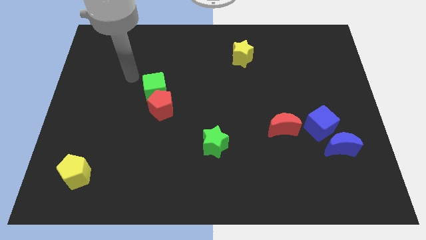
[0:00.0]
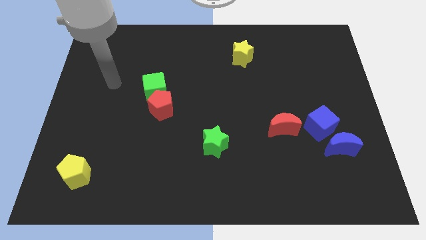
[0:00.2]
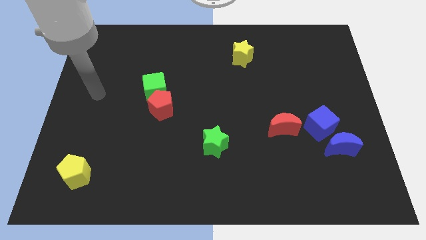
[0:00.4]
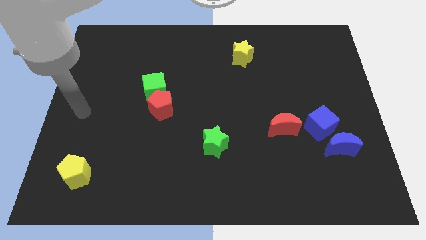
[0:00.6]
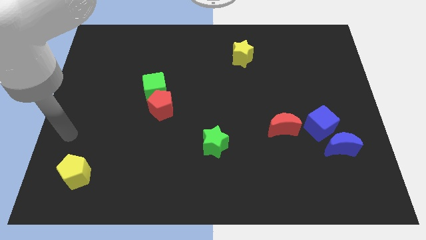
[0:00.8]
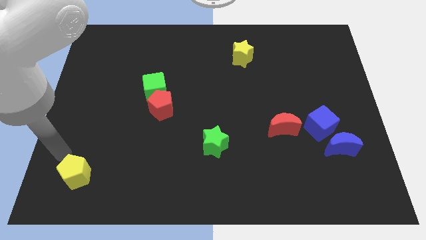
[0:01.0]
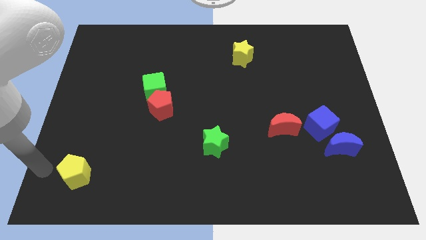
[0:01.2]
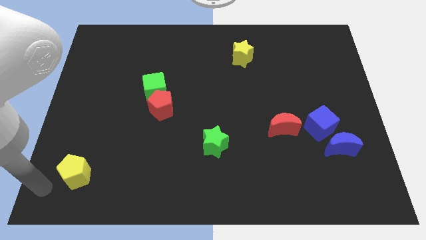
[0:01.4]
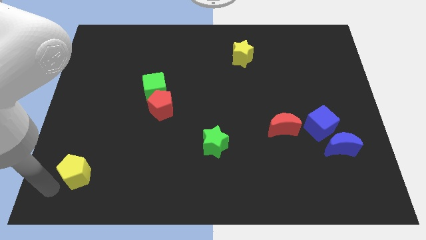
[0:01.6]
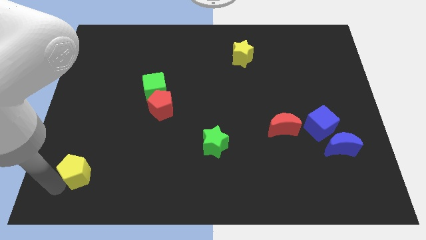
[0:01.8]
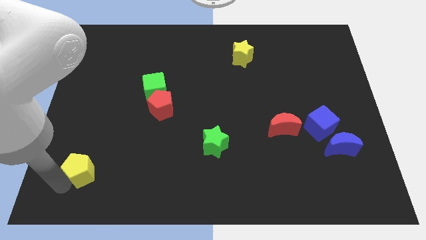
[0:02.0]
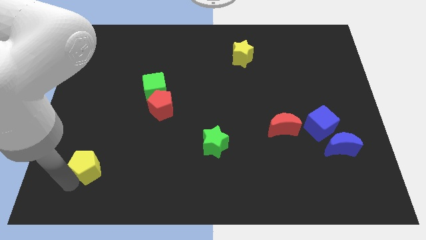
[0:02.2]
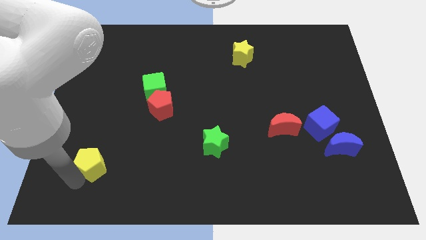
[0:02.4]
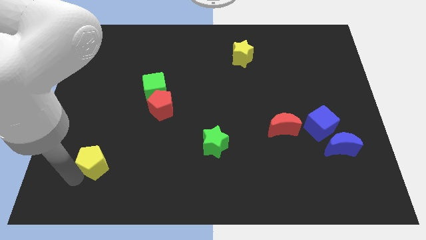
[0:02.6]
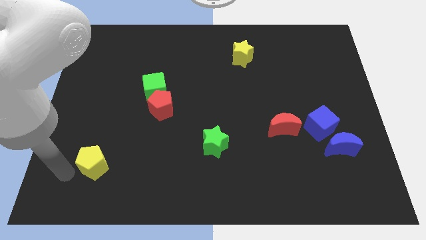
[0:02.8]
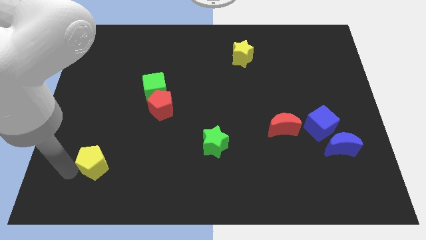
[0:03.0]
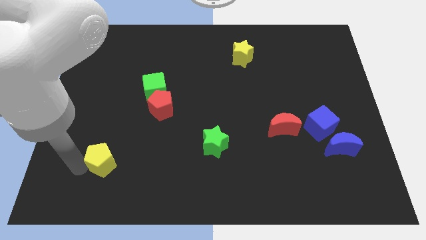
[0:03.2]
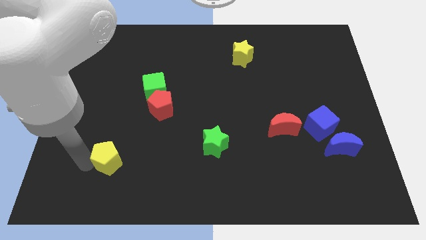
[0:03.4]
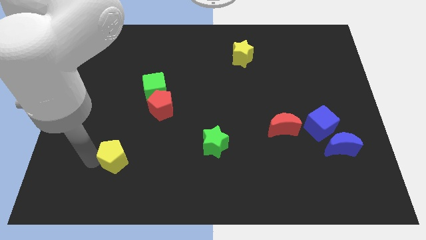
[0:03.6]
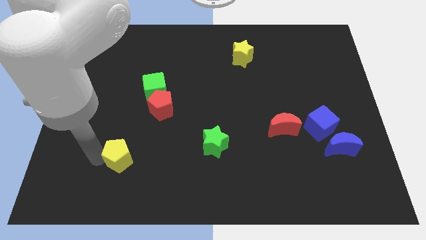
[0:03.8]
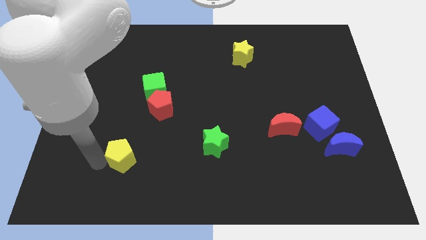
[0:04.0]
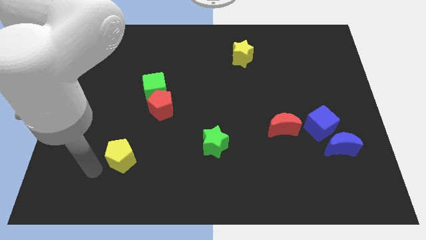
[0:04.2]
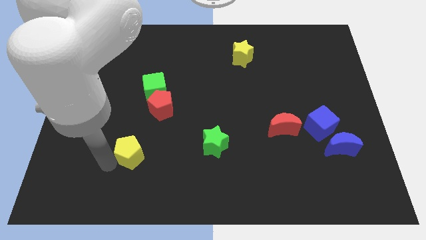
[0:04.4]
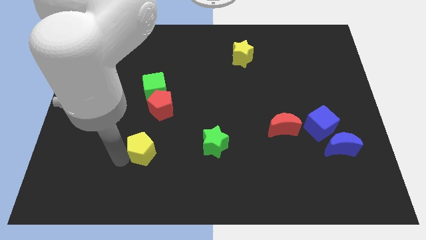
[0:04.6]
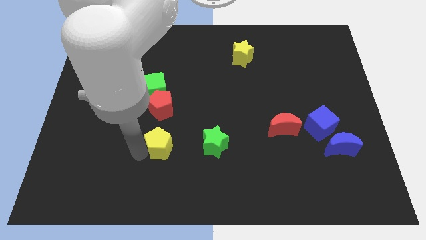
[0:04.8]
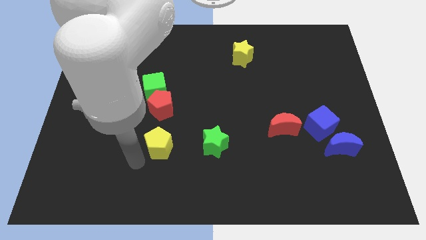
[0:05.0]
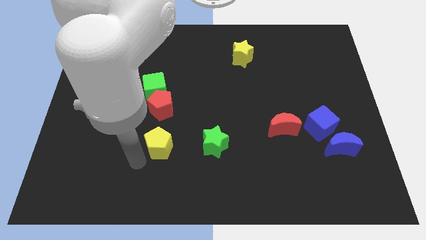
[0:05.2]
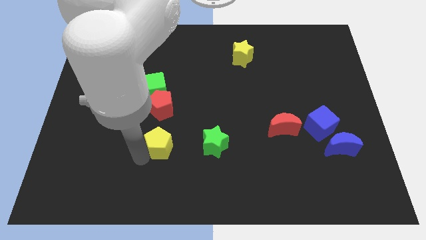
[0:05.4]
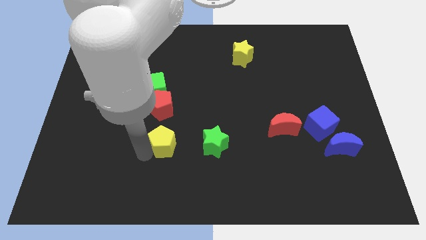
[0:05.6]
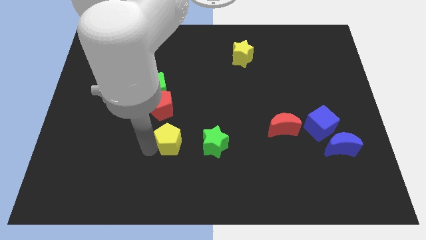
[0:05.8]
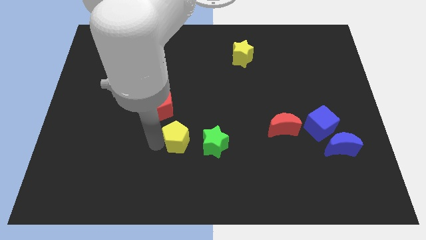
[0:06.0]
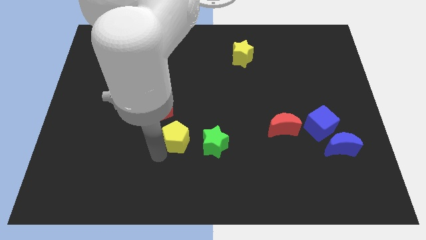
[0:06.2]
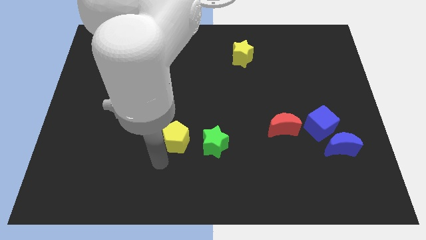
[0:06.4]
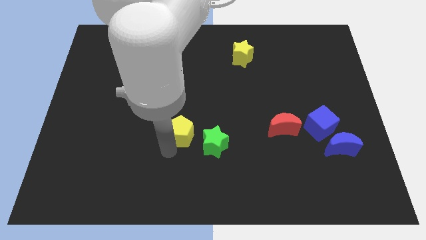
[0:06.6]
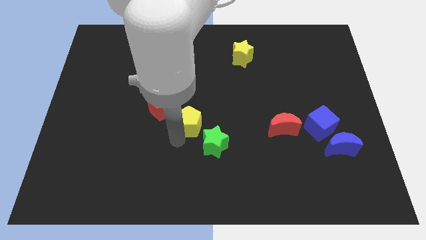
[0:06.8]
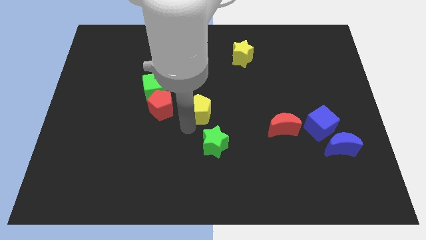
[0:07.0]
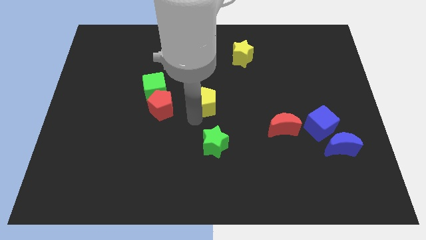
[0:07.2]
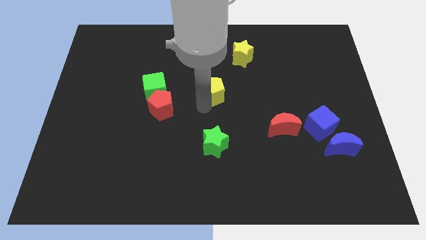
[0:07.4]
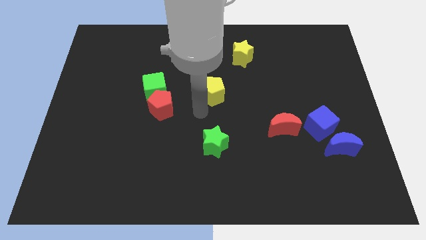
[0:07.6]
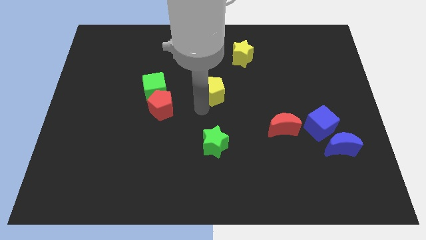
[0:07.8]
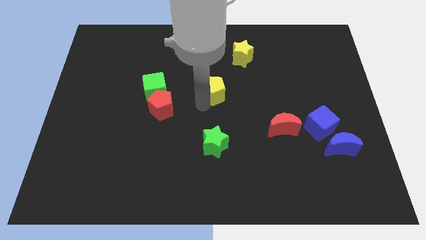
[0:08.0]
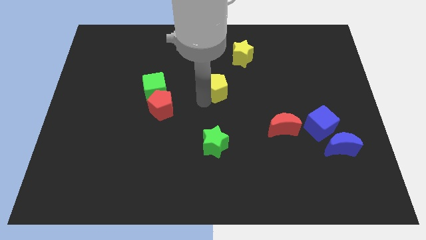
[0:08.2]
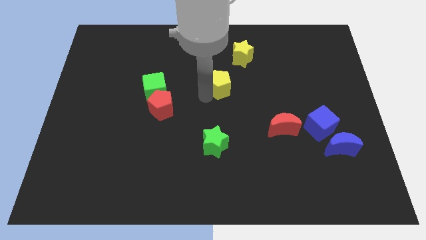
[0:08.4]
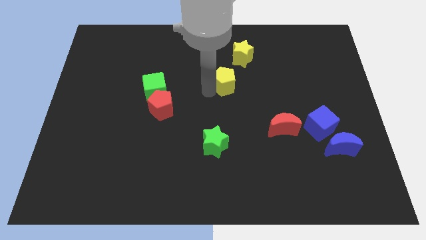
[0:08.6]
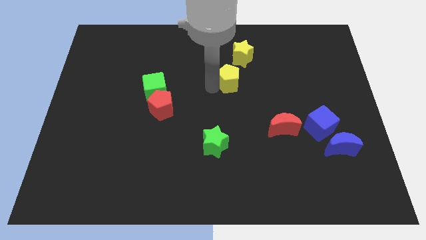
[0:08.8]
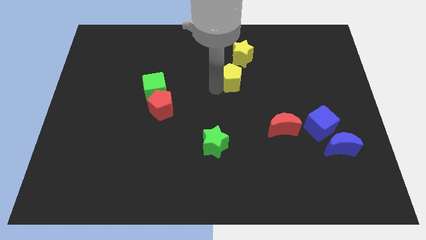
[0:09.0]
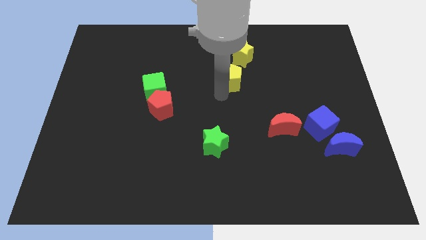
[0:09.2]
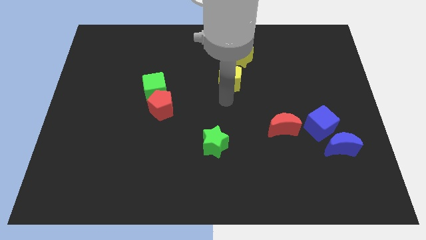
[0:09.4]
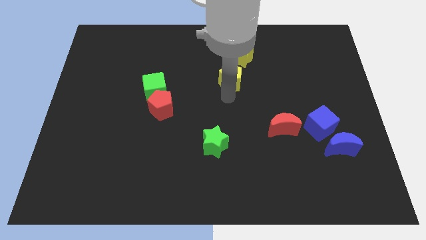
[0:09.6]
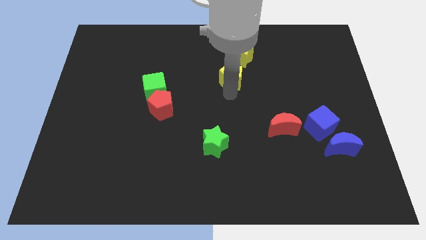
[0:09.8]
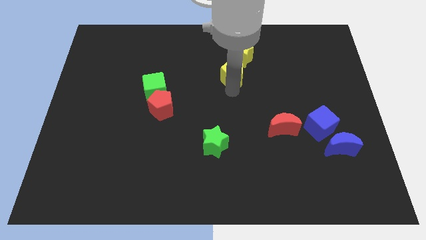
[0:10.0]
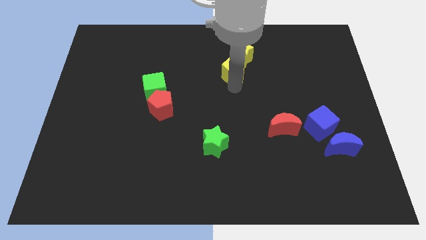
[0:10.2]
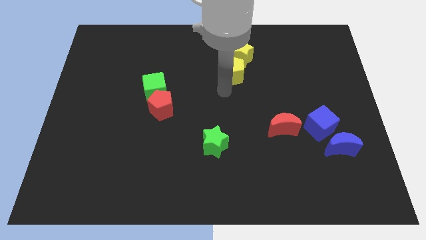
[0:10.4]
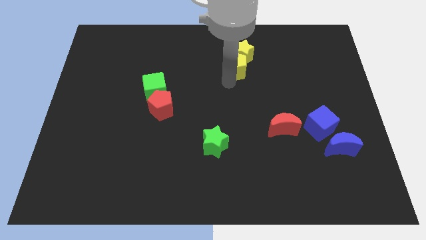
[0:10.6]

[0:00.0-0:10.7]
move the yellow pentagon towards the yellow star

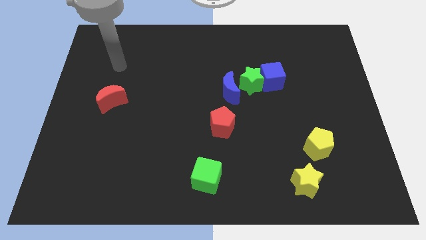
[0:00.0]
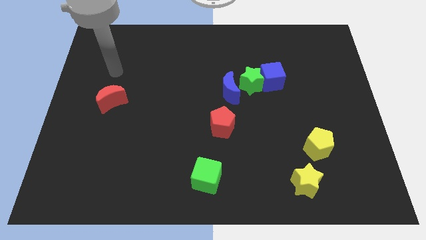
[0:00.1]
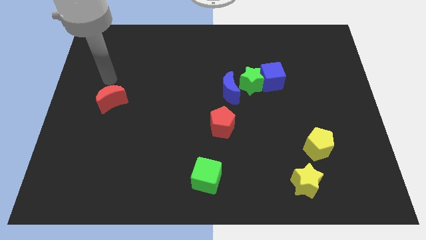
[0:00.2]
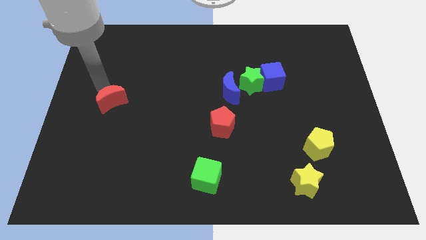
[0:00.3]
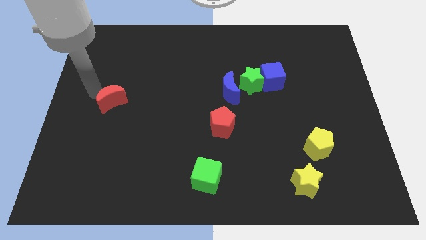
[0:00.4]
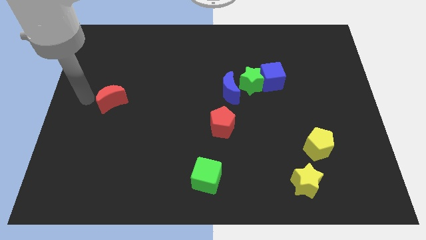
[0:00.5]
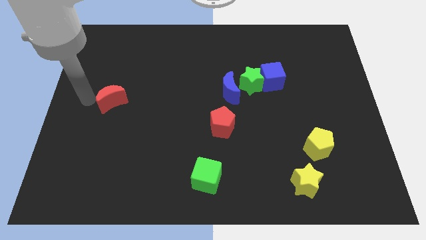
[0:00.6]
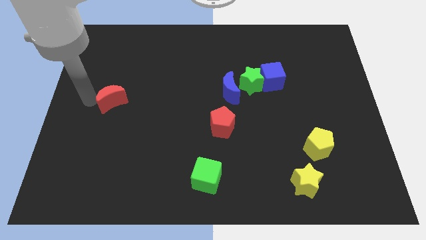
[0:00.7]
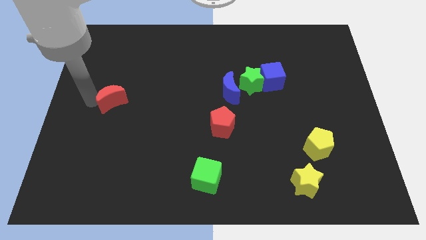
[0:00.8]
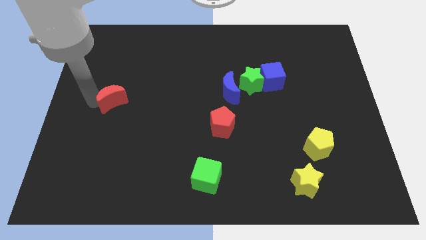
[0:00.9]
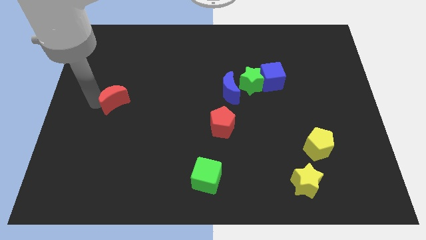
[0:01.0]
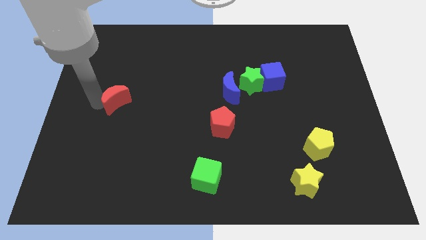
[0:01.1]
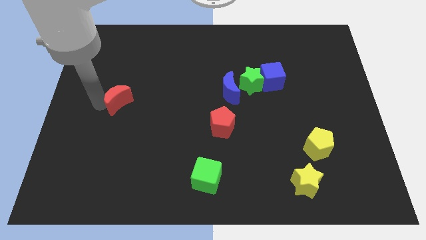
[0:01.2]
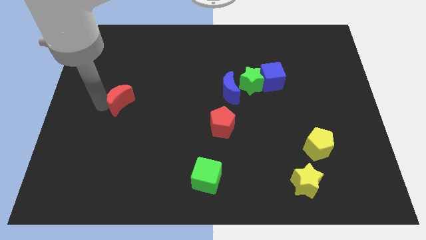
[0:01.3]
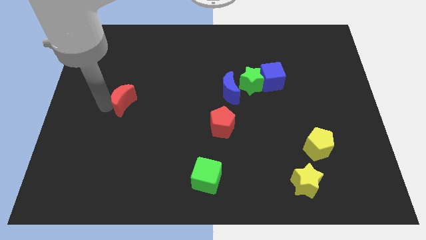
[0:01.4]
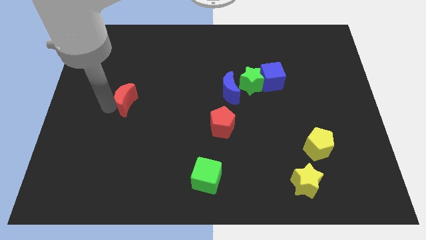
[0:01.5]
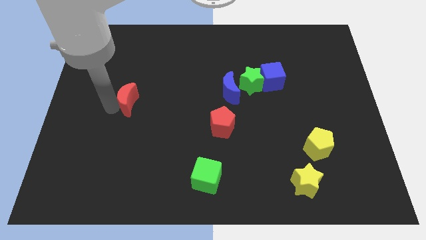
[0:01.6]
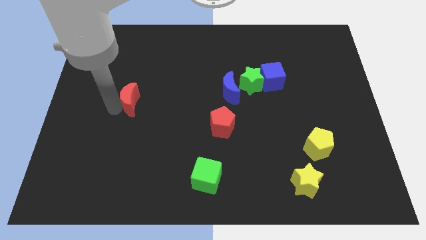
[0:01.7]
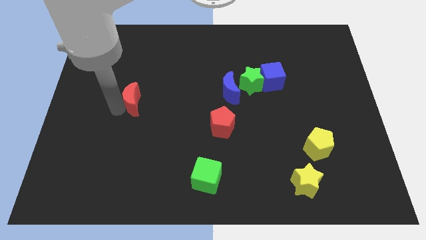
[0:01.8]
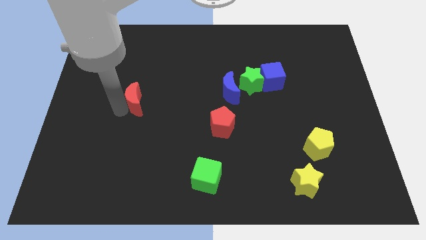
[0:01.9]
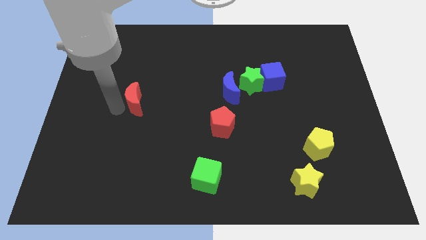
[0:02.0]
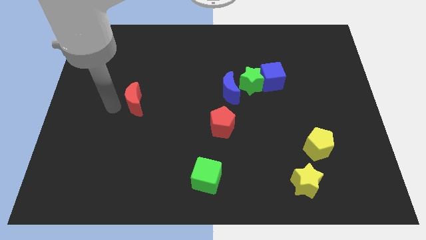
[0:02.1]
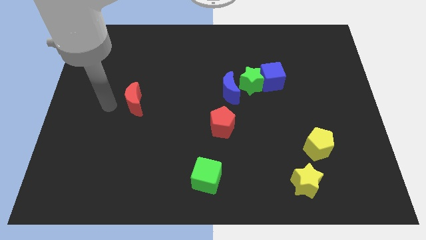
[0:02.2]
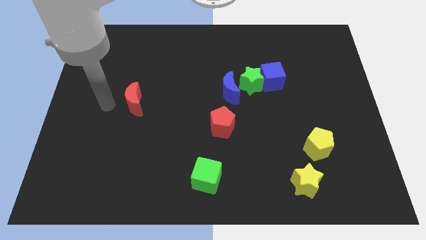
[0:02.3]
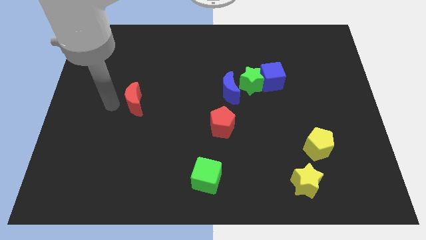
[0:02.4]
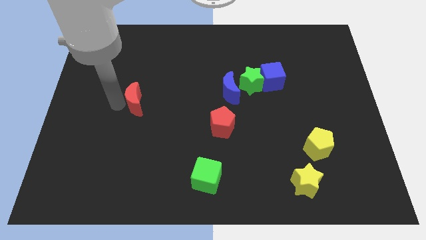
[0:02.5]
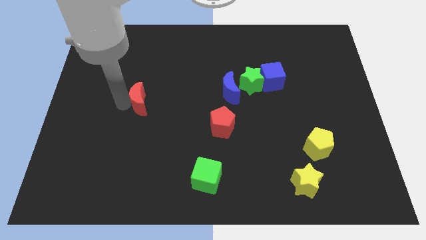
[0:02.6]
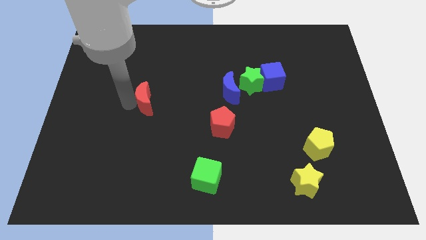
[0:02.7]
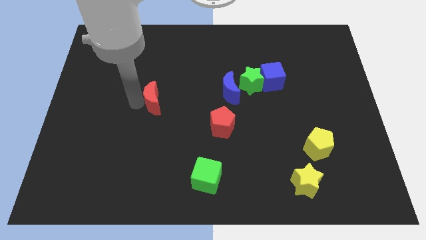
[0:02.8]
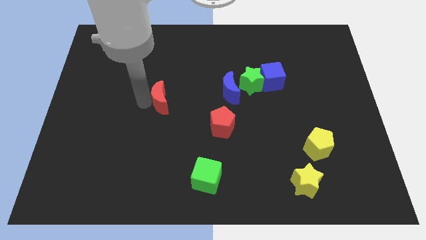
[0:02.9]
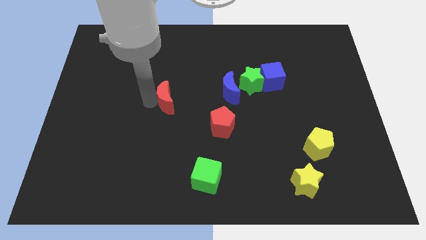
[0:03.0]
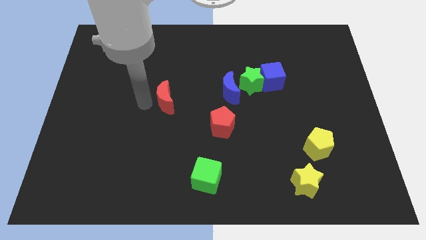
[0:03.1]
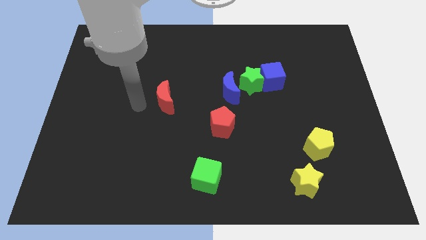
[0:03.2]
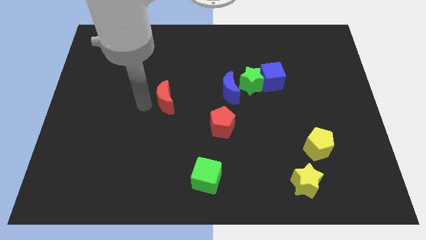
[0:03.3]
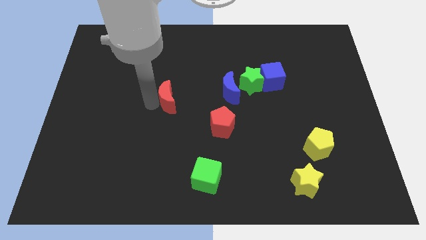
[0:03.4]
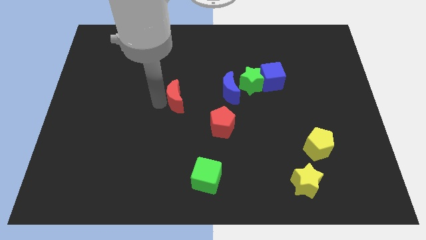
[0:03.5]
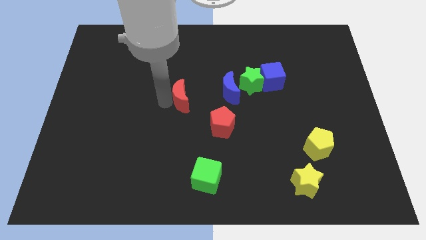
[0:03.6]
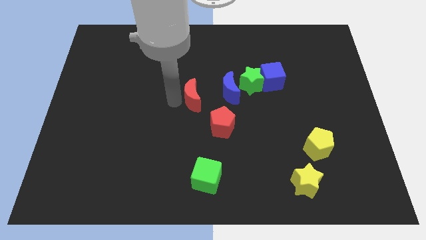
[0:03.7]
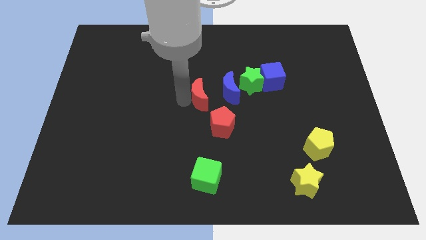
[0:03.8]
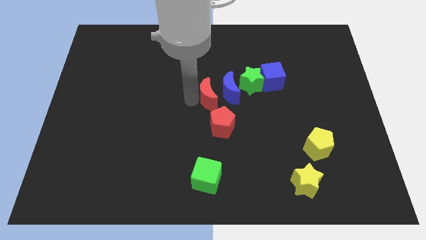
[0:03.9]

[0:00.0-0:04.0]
move the red moon close to the blue moon
